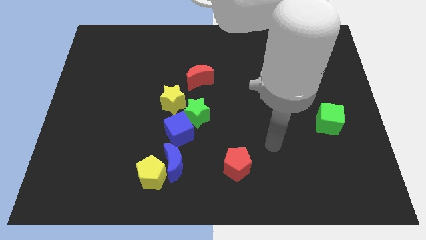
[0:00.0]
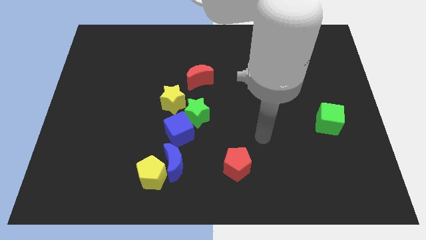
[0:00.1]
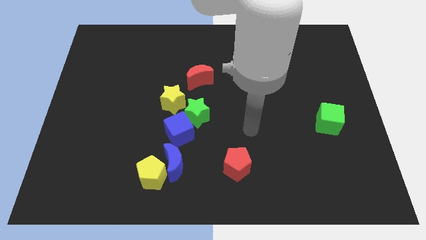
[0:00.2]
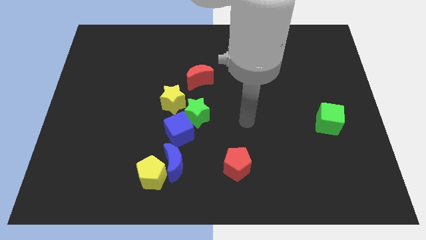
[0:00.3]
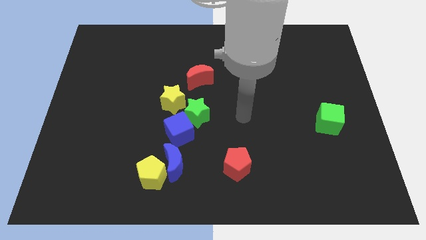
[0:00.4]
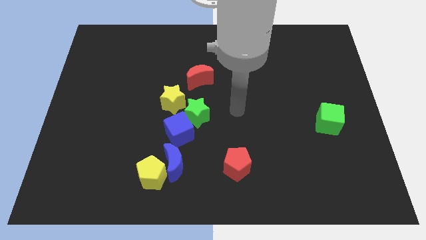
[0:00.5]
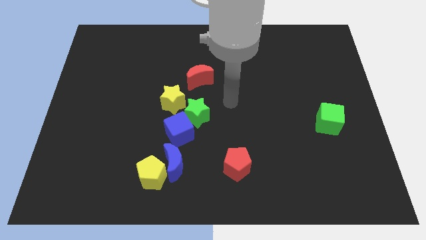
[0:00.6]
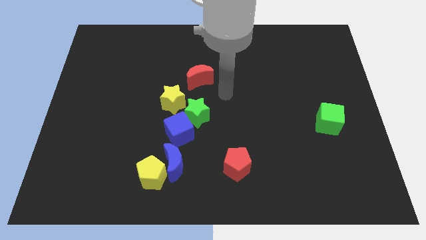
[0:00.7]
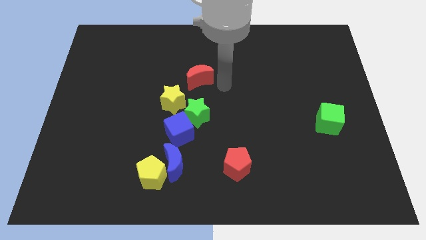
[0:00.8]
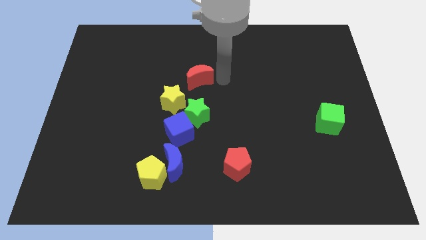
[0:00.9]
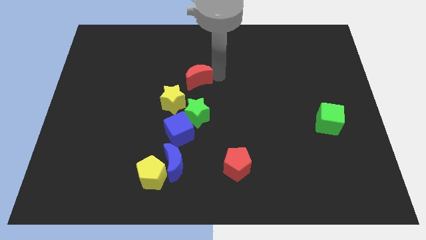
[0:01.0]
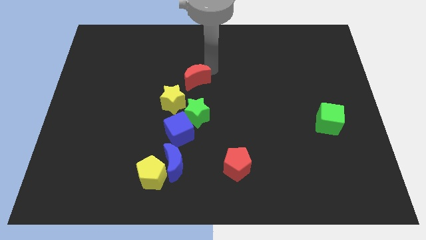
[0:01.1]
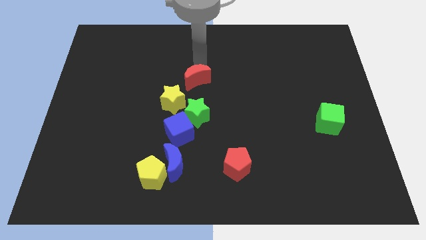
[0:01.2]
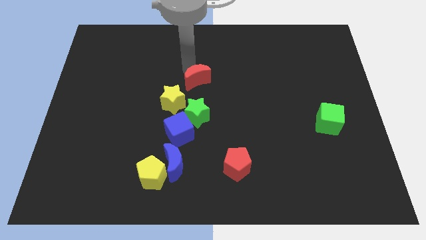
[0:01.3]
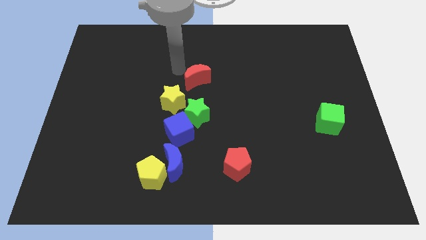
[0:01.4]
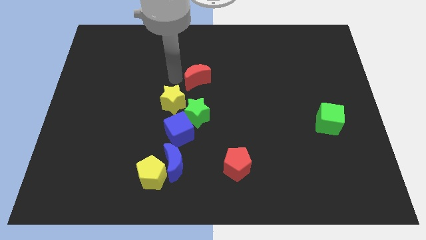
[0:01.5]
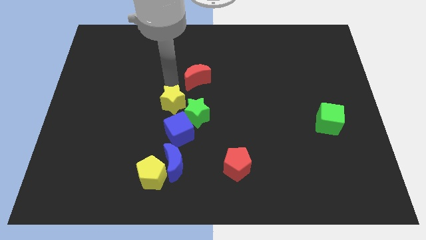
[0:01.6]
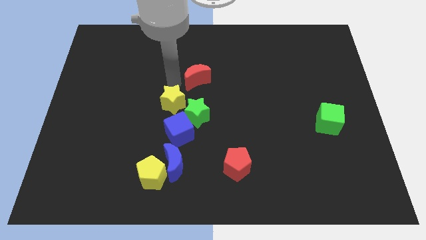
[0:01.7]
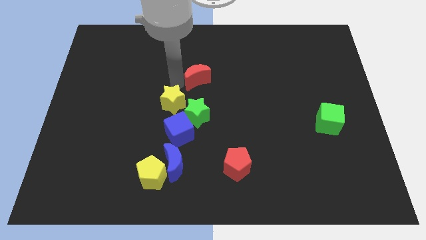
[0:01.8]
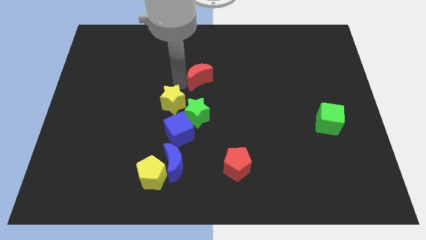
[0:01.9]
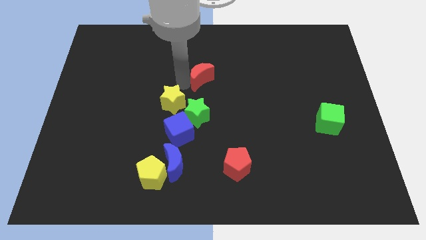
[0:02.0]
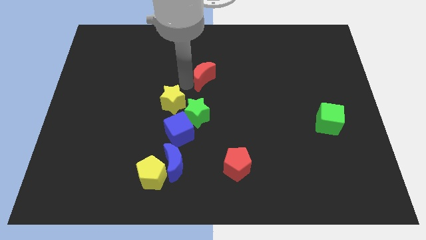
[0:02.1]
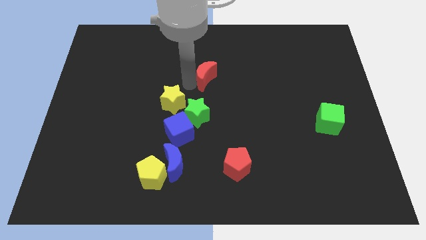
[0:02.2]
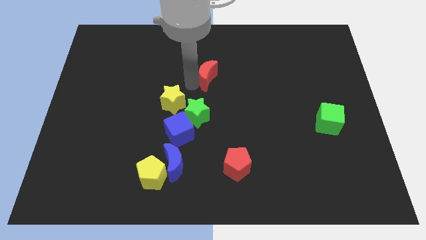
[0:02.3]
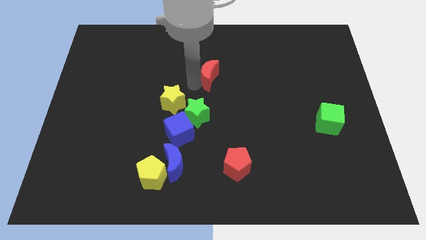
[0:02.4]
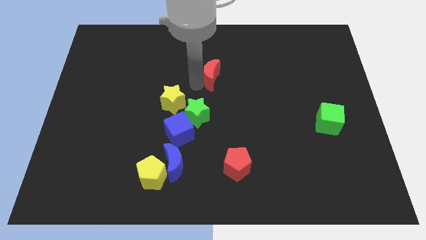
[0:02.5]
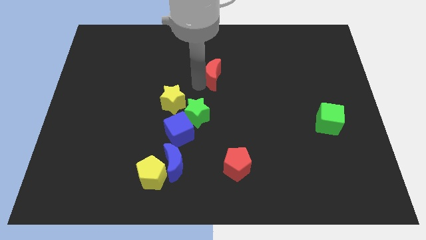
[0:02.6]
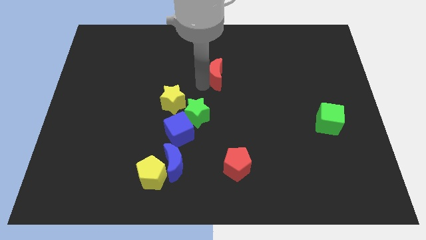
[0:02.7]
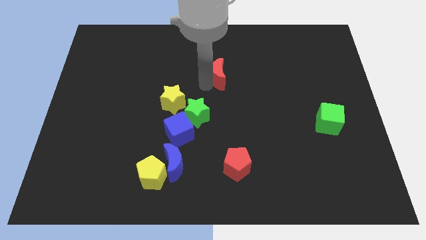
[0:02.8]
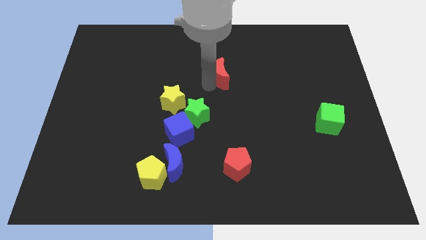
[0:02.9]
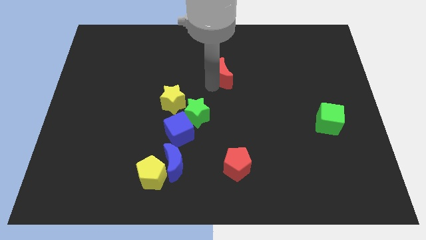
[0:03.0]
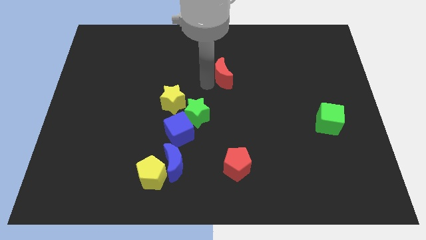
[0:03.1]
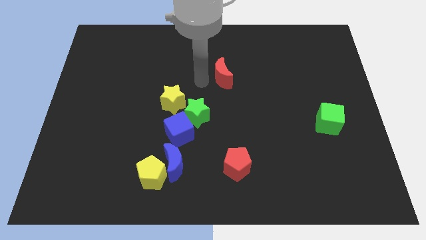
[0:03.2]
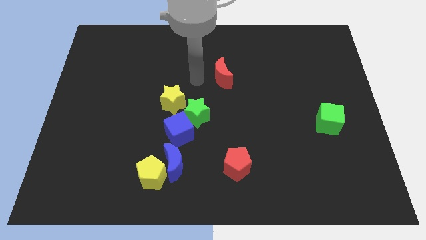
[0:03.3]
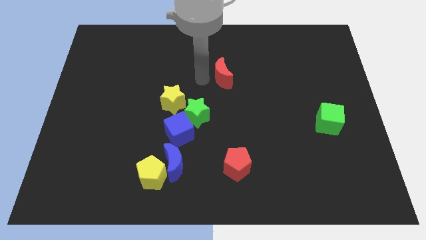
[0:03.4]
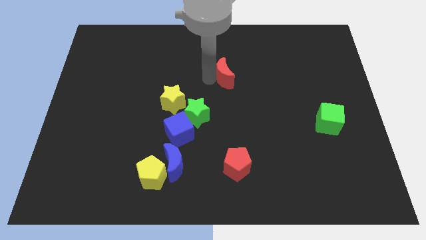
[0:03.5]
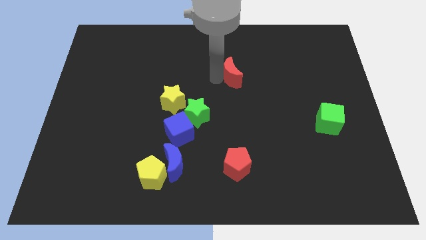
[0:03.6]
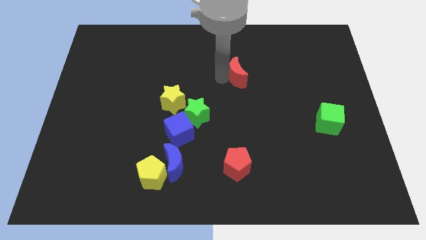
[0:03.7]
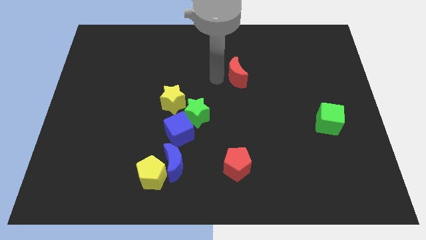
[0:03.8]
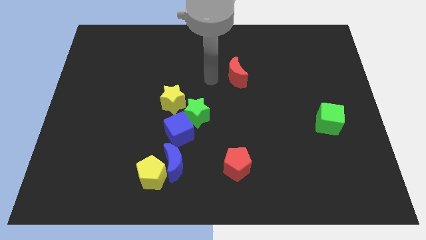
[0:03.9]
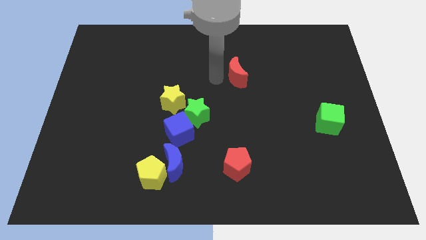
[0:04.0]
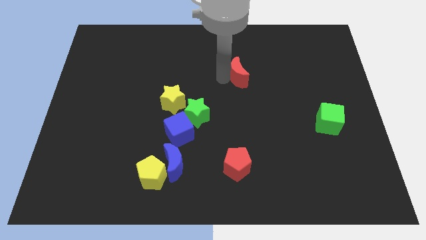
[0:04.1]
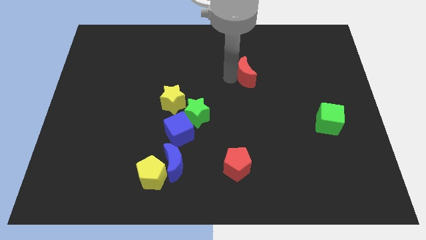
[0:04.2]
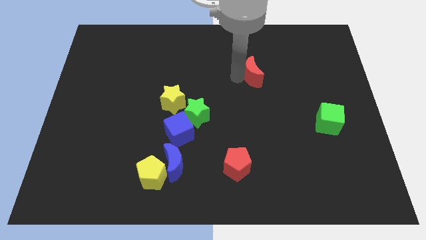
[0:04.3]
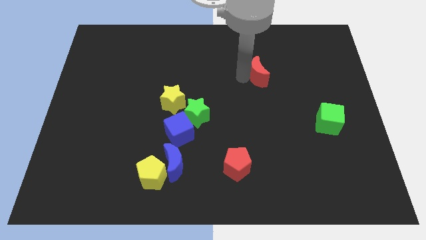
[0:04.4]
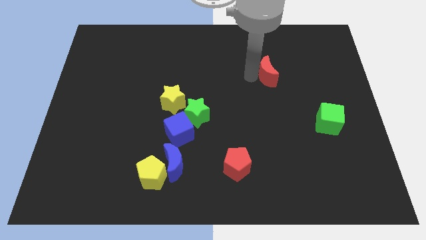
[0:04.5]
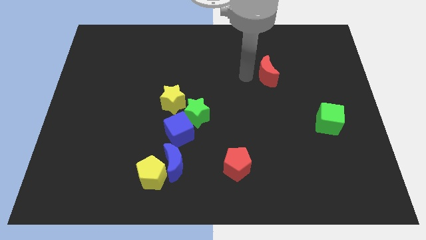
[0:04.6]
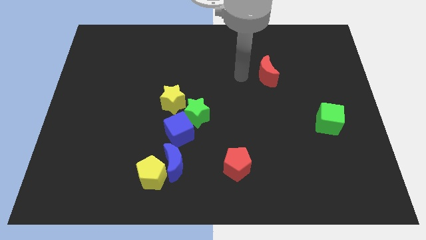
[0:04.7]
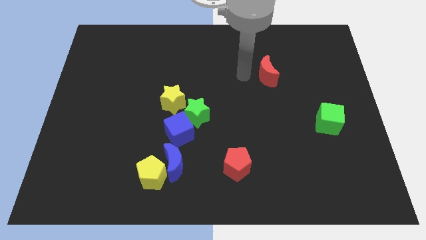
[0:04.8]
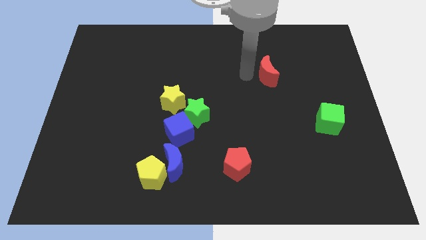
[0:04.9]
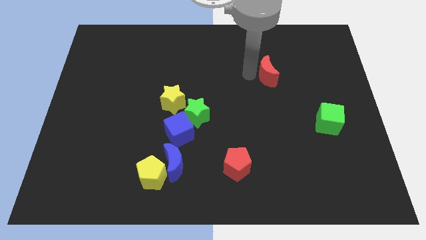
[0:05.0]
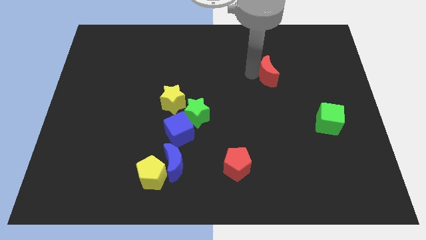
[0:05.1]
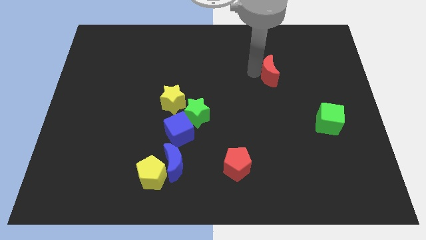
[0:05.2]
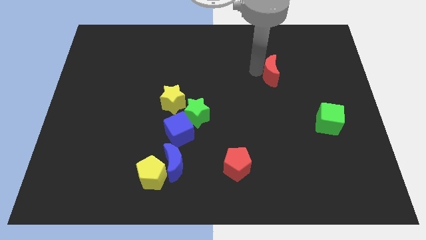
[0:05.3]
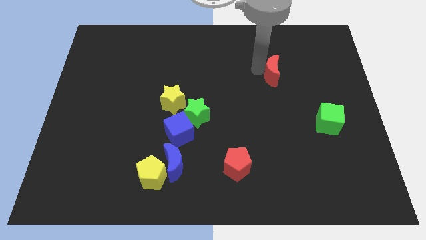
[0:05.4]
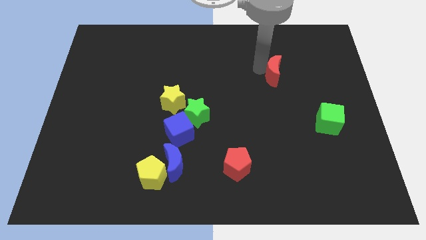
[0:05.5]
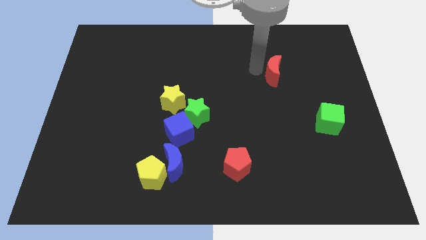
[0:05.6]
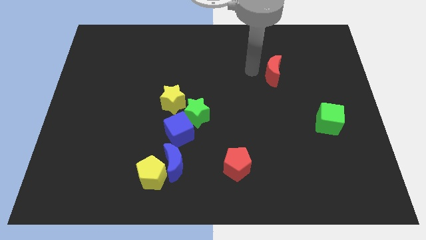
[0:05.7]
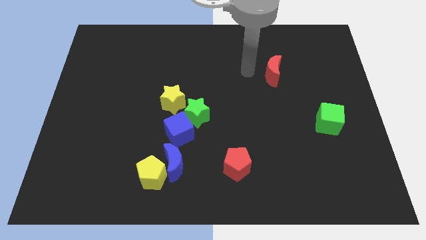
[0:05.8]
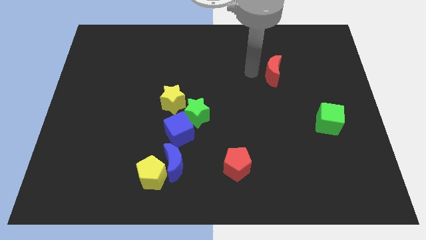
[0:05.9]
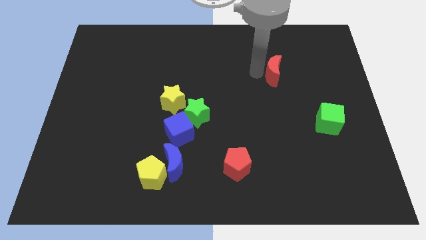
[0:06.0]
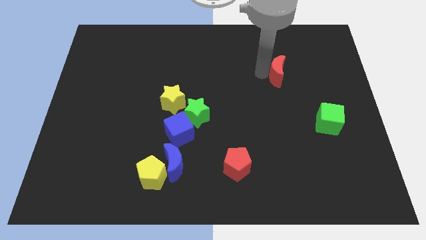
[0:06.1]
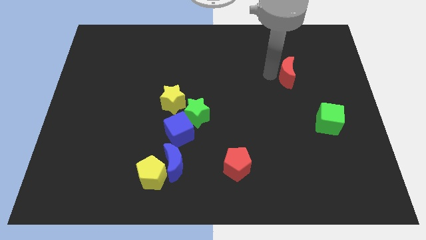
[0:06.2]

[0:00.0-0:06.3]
push the red moon right

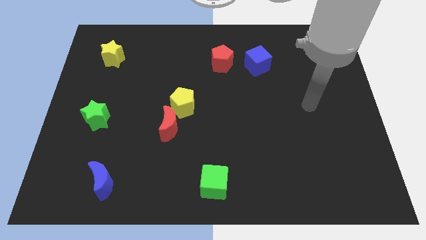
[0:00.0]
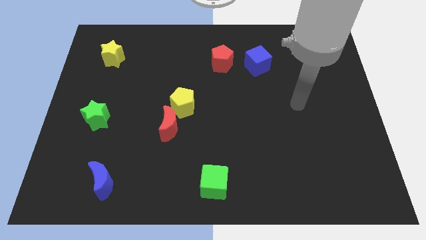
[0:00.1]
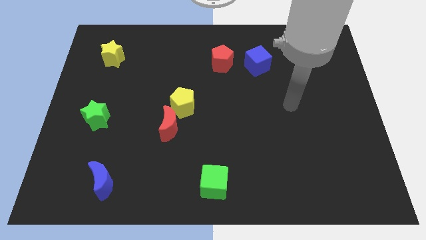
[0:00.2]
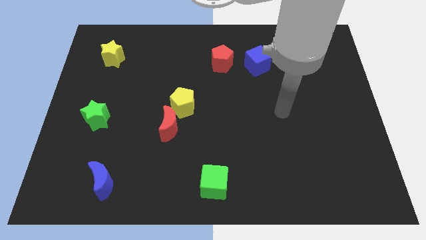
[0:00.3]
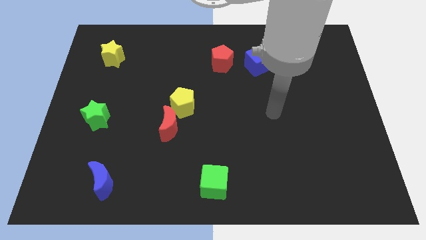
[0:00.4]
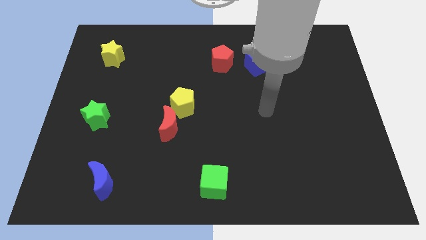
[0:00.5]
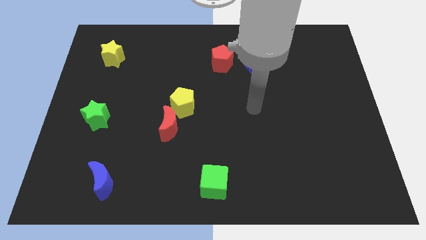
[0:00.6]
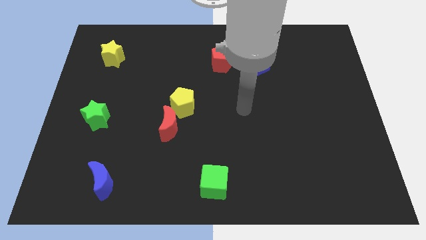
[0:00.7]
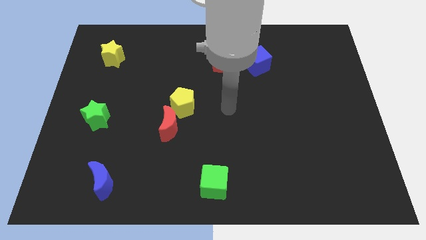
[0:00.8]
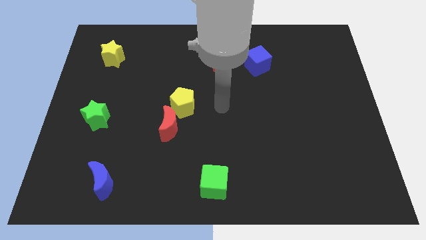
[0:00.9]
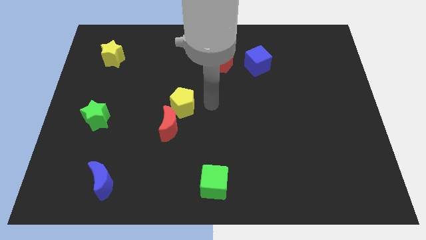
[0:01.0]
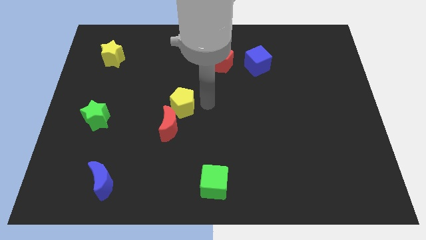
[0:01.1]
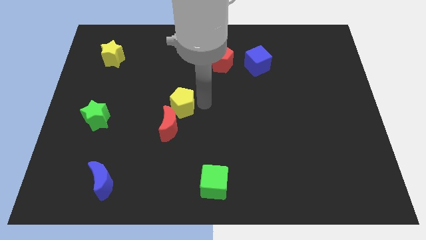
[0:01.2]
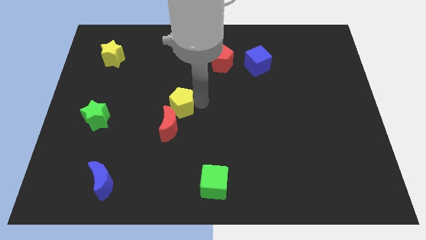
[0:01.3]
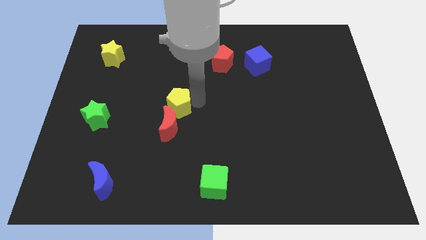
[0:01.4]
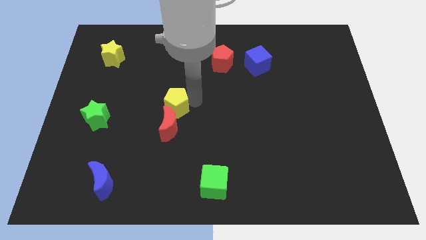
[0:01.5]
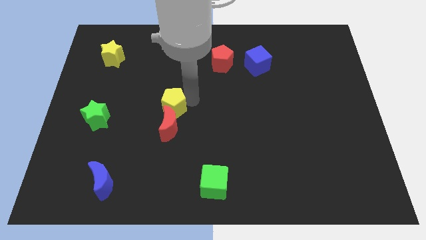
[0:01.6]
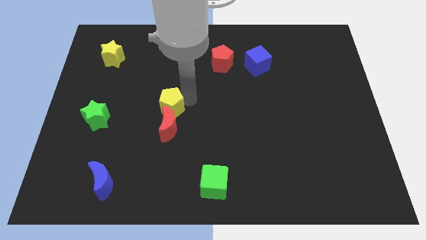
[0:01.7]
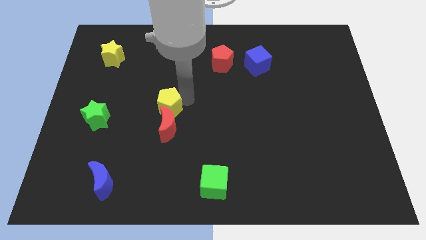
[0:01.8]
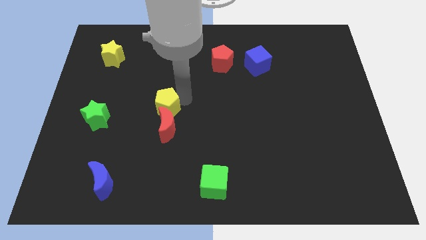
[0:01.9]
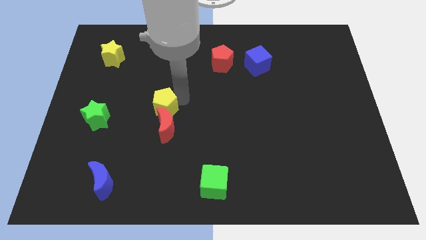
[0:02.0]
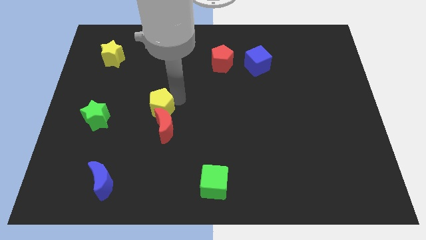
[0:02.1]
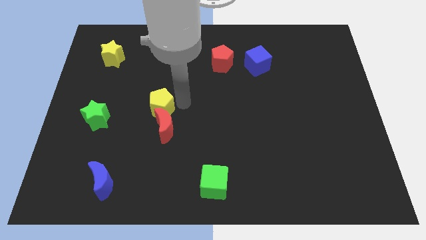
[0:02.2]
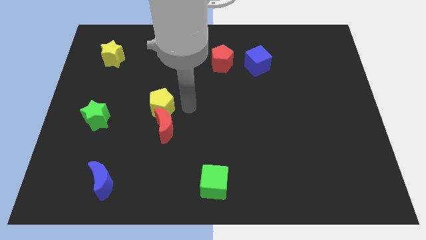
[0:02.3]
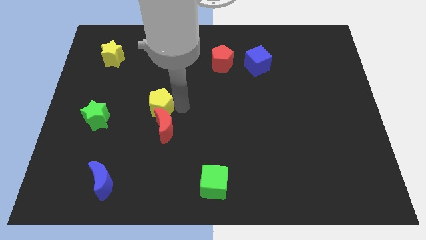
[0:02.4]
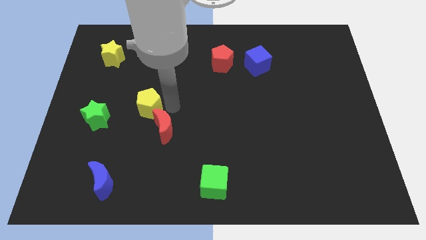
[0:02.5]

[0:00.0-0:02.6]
push the yellow pentagon a bit to the left
